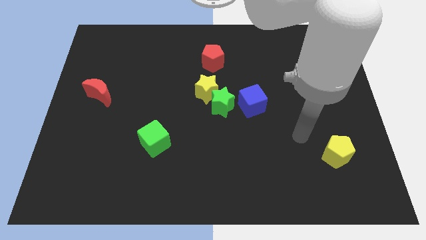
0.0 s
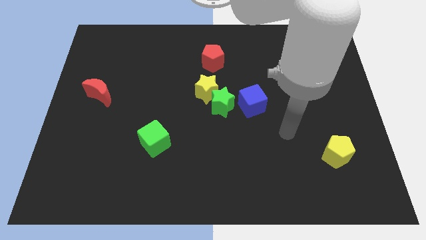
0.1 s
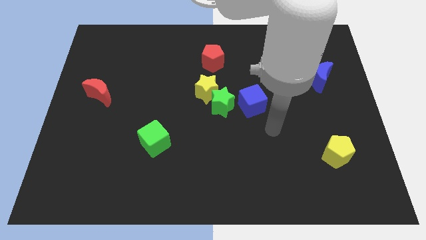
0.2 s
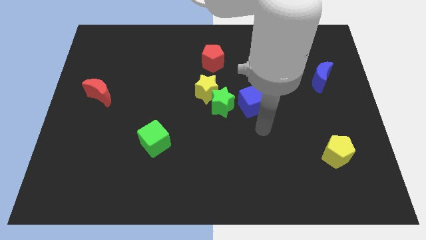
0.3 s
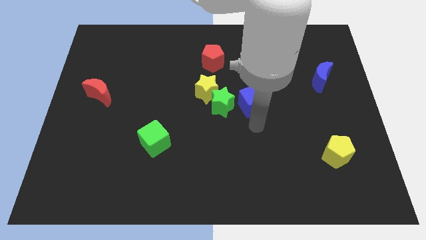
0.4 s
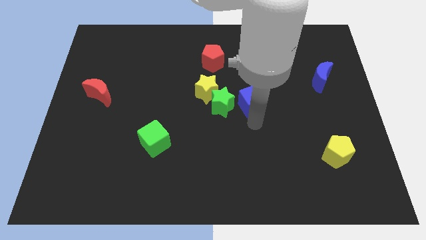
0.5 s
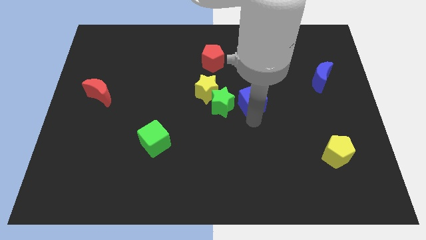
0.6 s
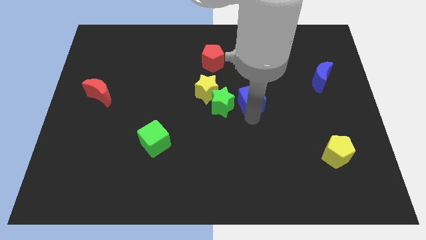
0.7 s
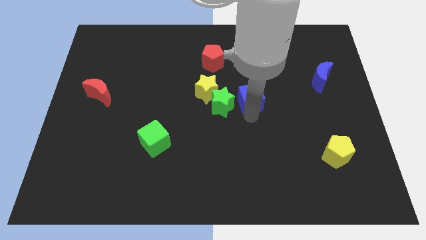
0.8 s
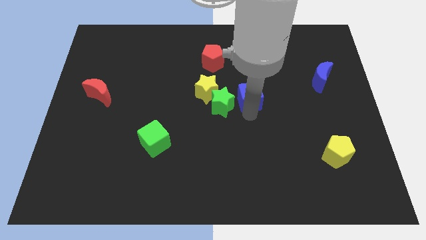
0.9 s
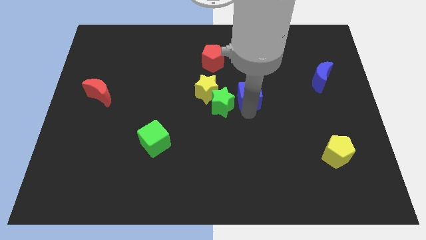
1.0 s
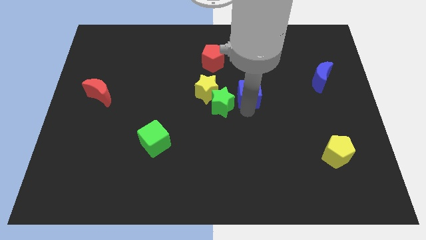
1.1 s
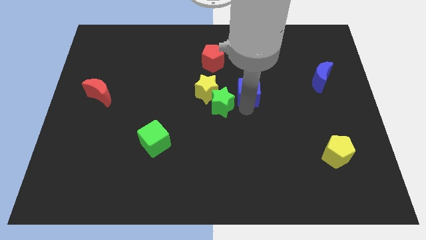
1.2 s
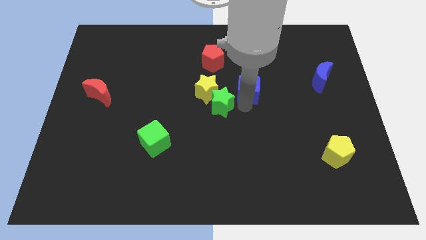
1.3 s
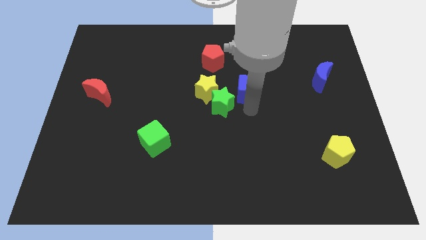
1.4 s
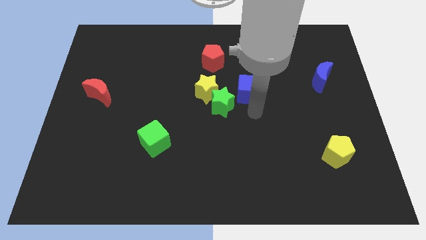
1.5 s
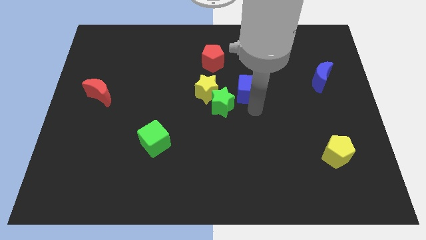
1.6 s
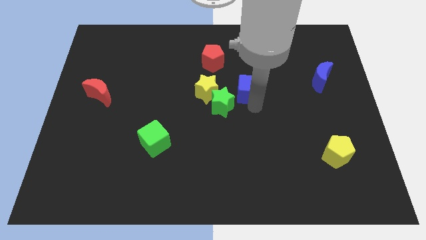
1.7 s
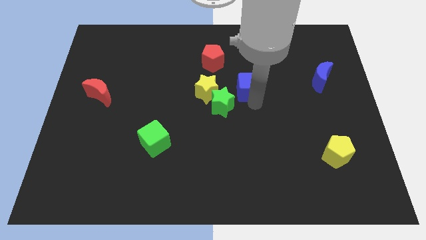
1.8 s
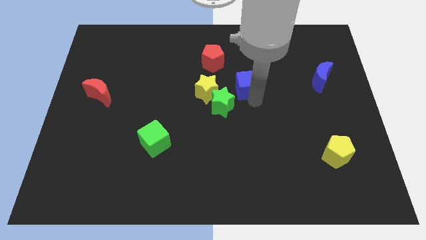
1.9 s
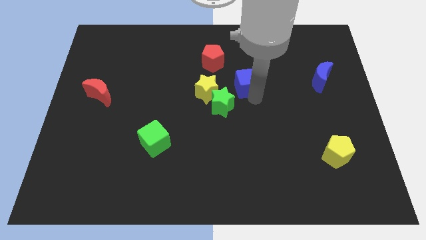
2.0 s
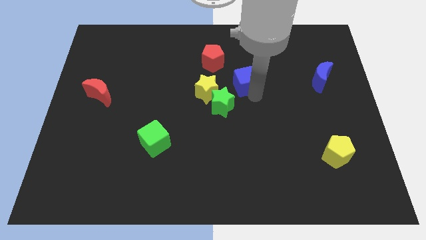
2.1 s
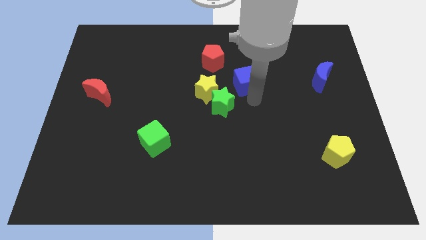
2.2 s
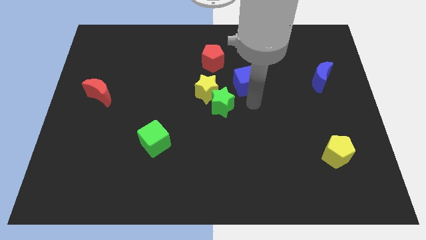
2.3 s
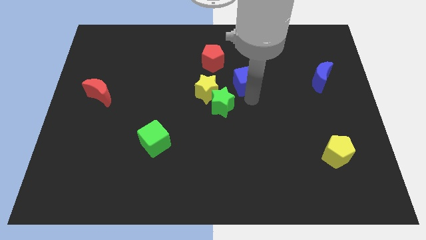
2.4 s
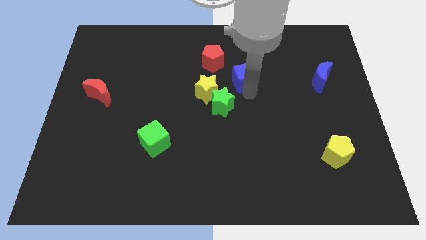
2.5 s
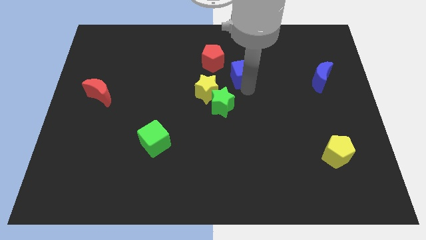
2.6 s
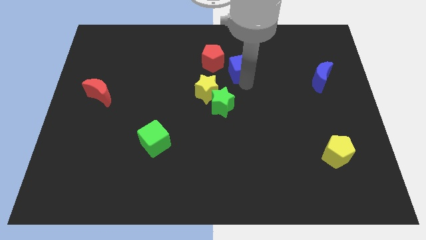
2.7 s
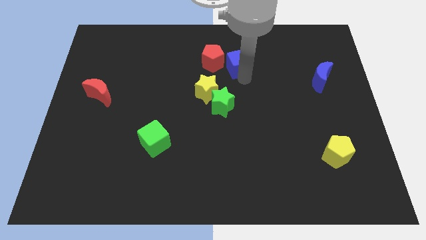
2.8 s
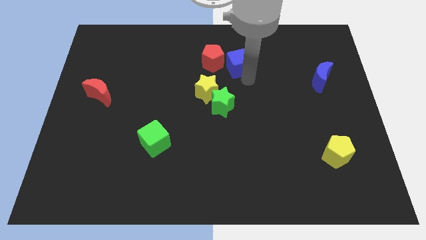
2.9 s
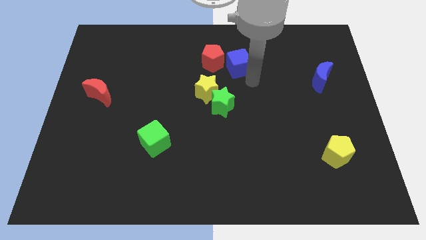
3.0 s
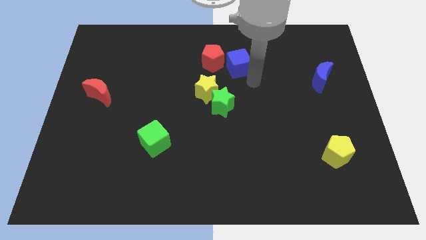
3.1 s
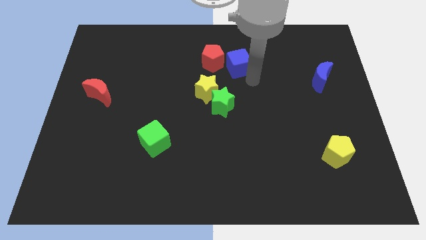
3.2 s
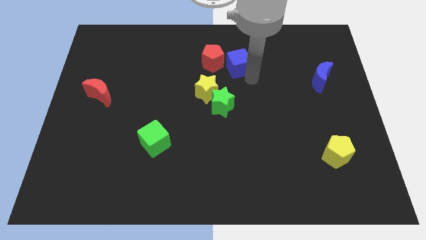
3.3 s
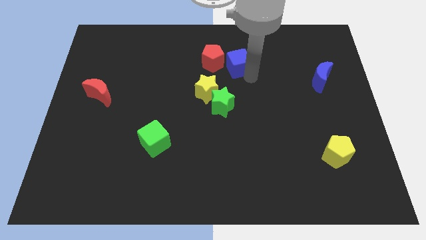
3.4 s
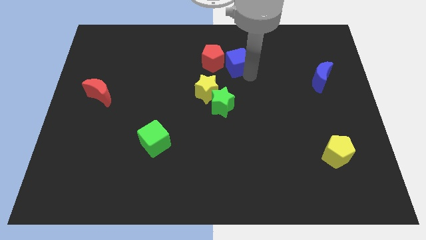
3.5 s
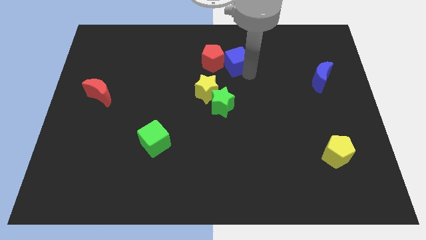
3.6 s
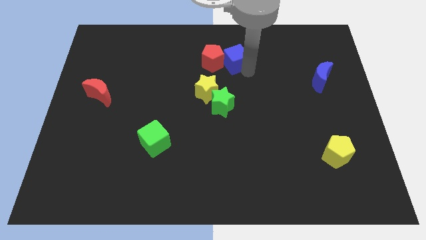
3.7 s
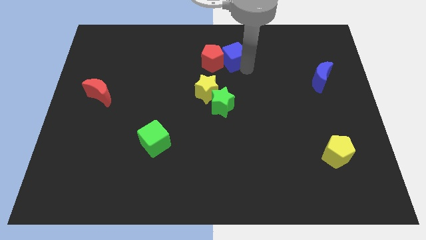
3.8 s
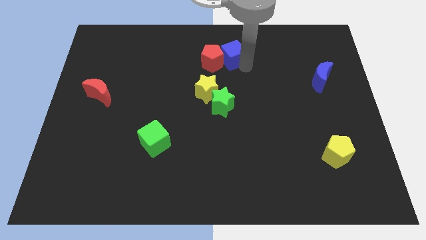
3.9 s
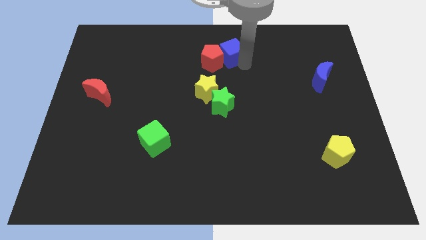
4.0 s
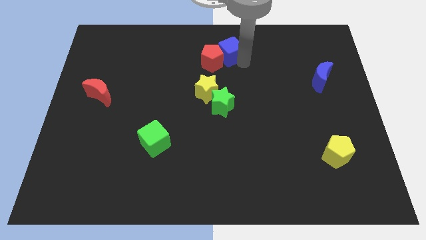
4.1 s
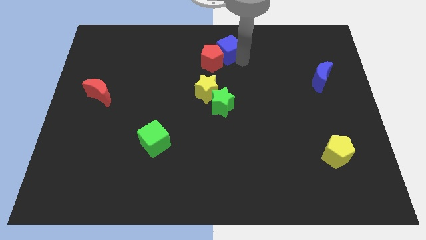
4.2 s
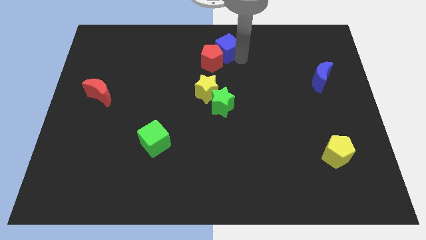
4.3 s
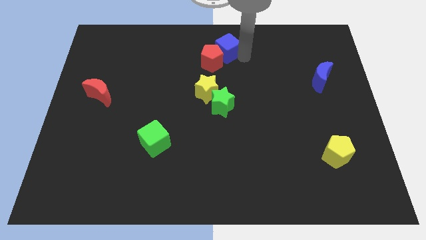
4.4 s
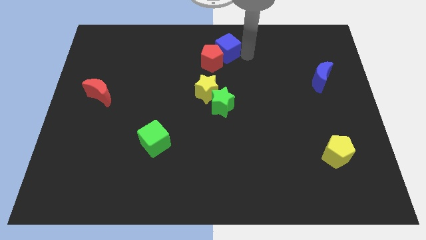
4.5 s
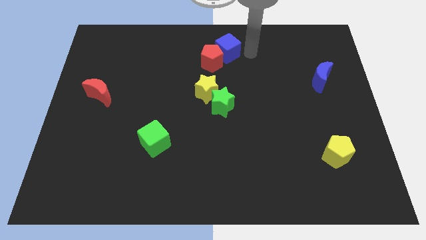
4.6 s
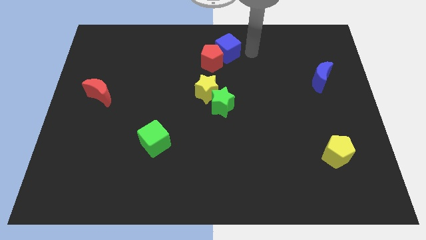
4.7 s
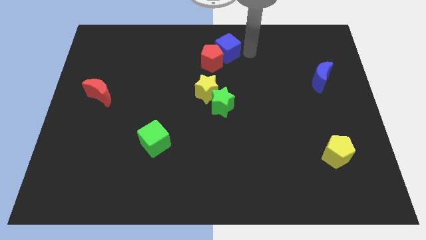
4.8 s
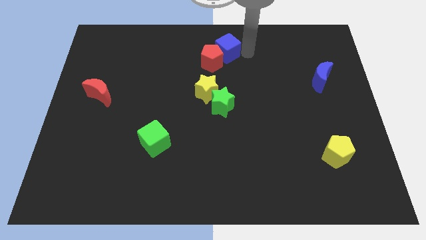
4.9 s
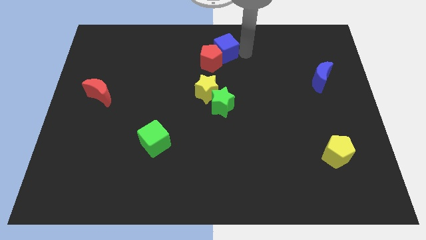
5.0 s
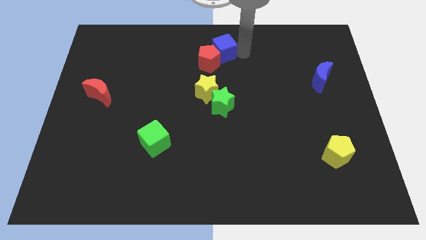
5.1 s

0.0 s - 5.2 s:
put the blue cube to the top side of the yellow star
